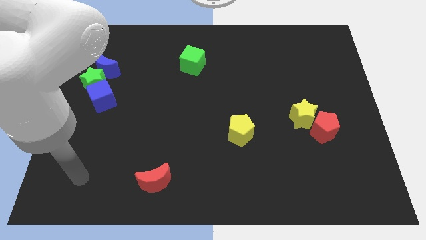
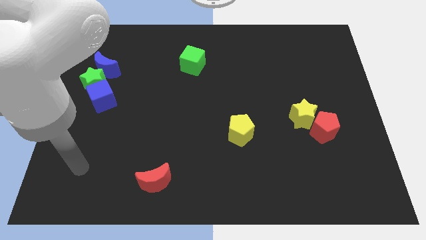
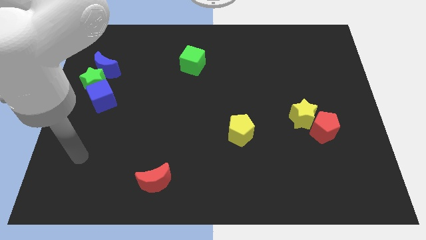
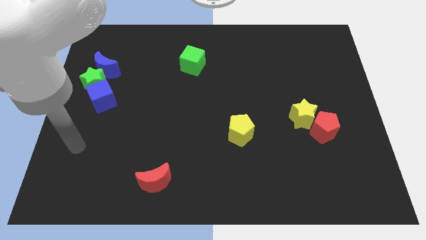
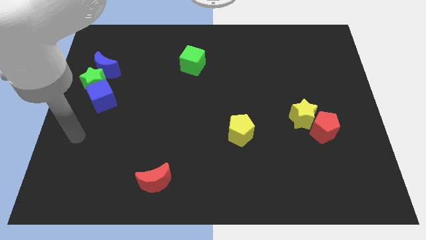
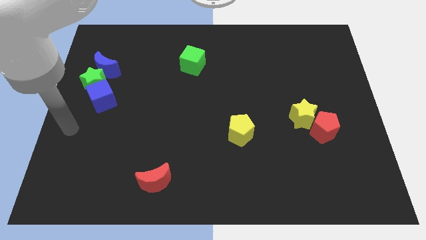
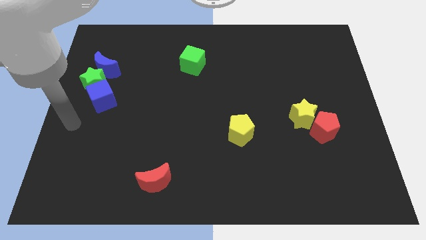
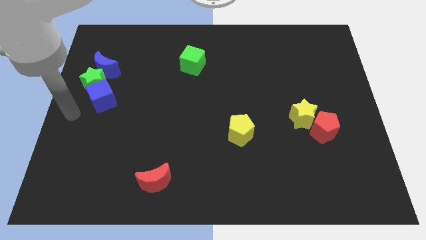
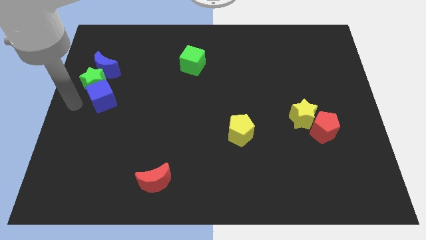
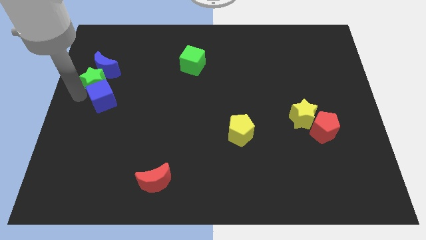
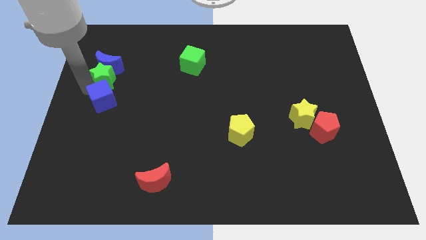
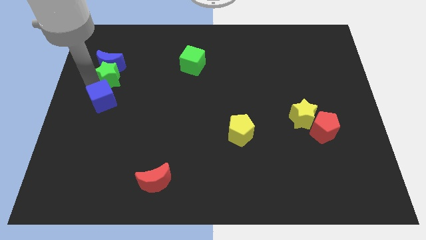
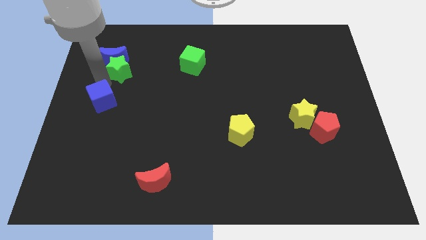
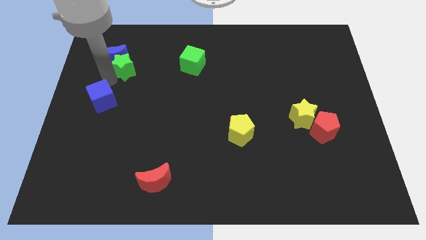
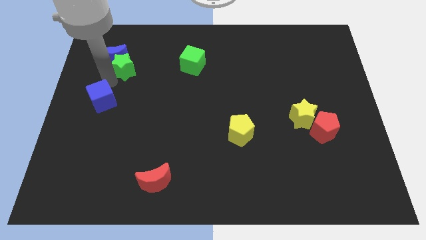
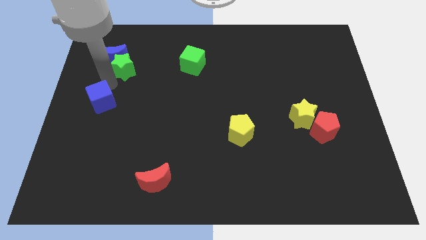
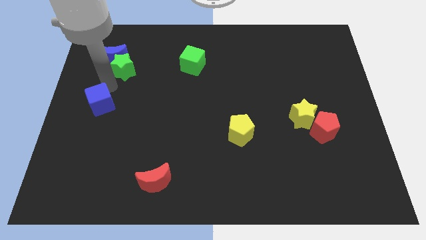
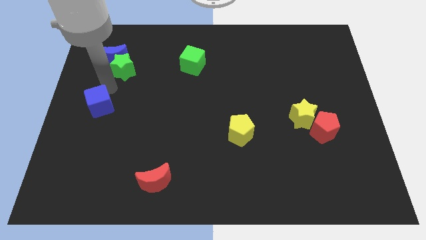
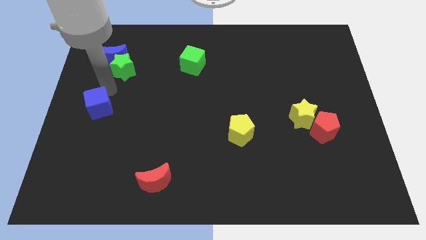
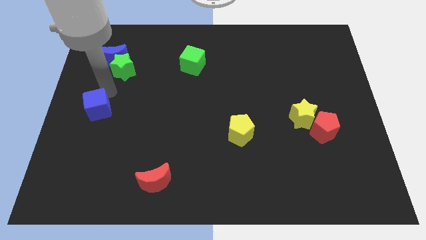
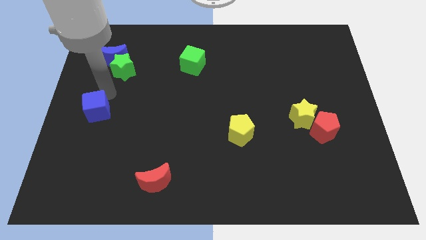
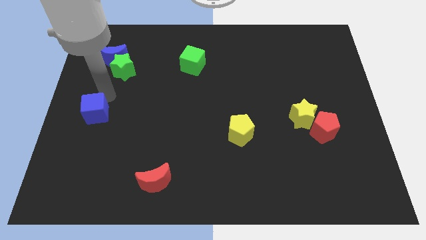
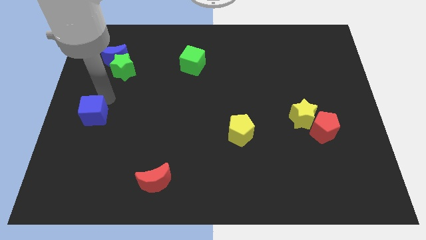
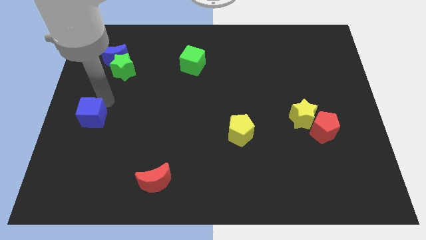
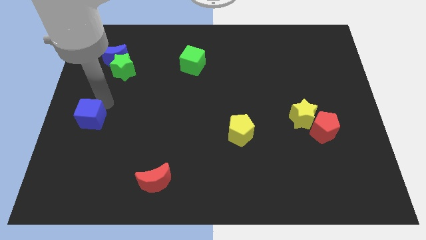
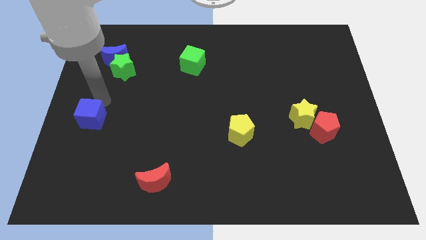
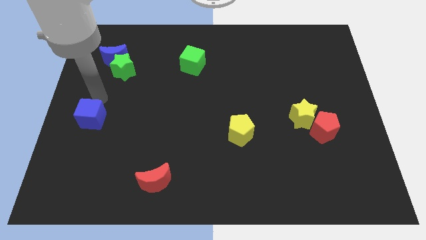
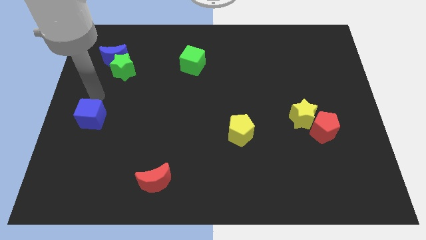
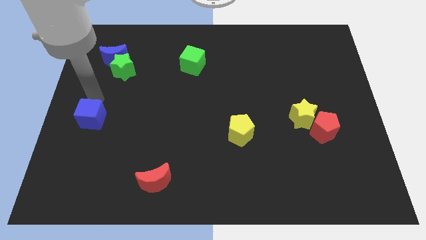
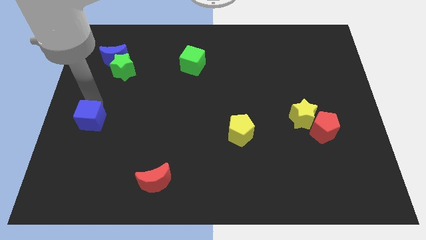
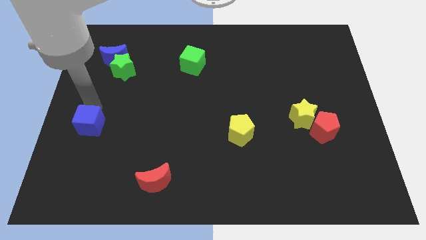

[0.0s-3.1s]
slide the blue cube downwards a little

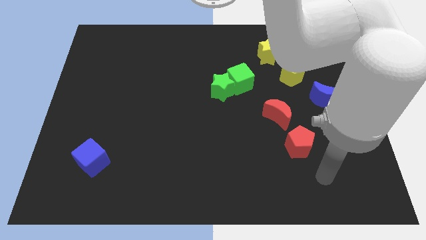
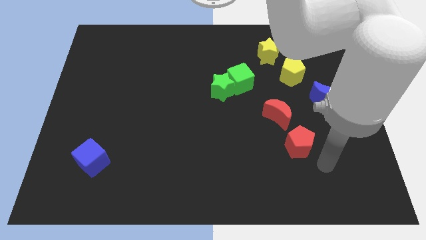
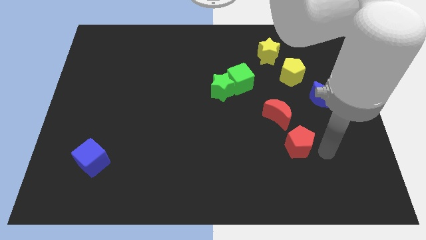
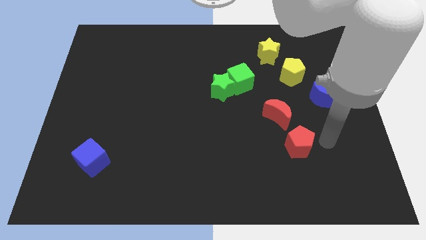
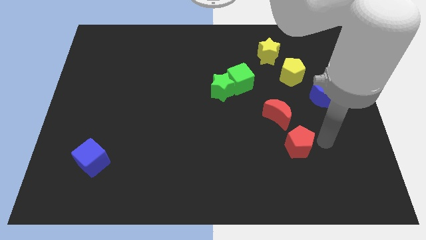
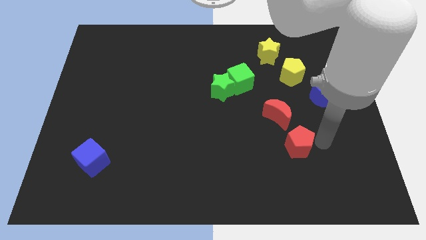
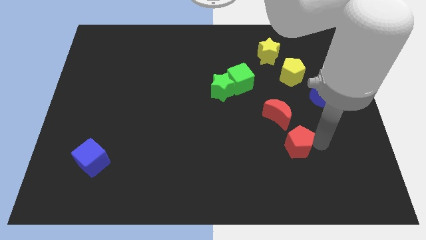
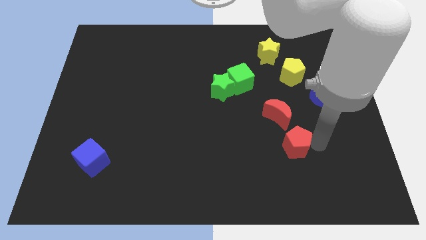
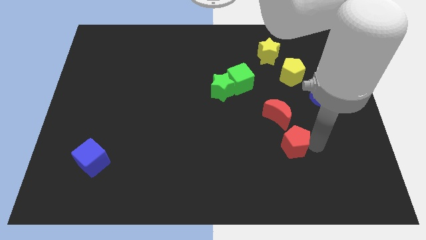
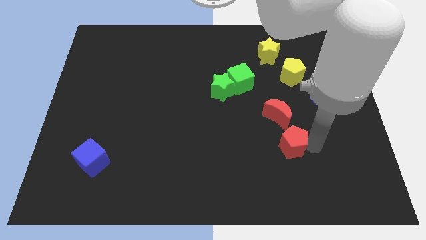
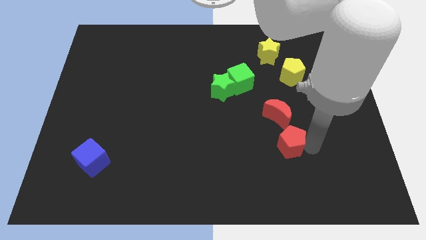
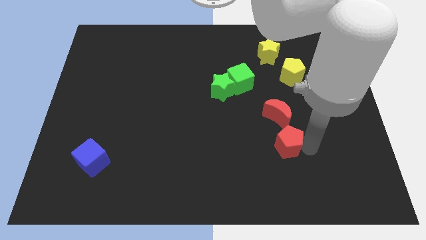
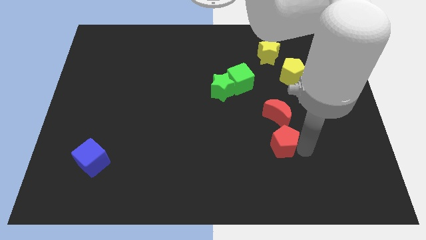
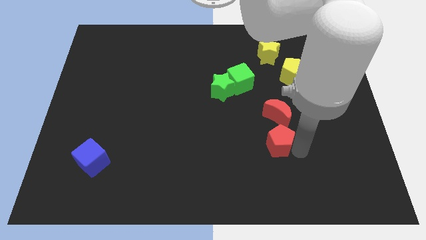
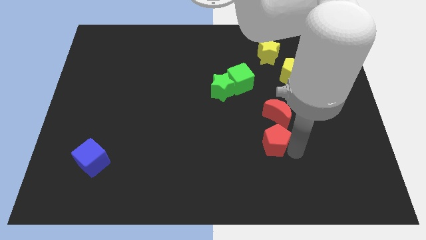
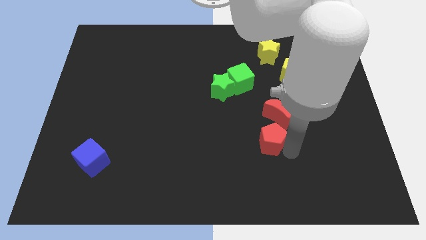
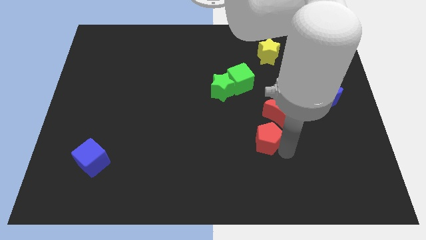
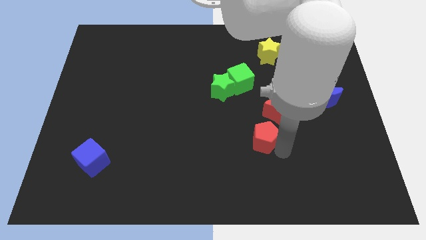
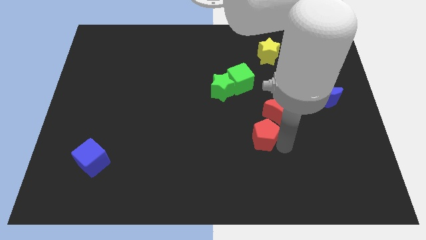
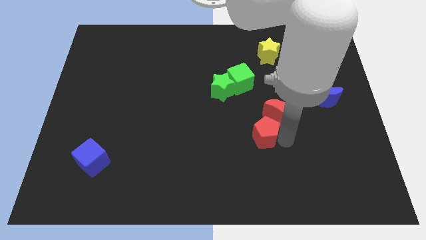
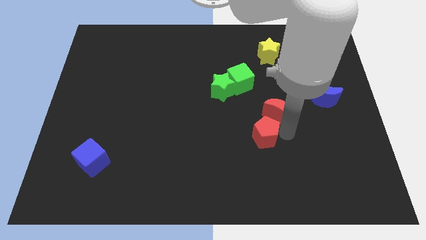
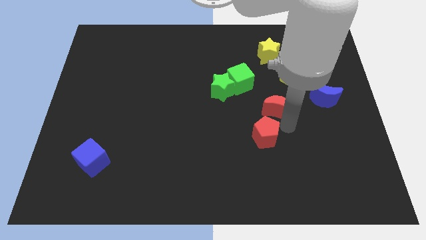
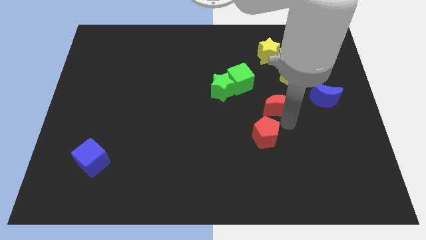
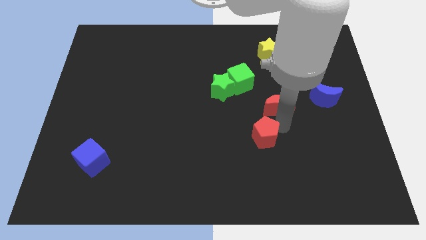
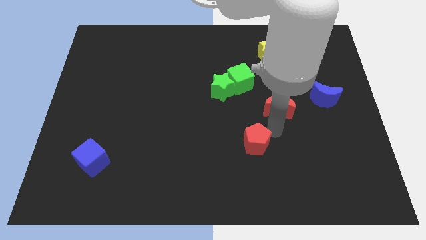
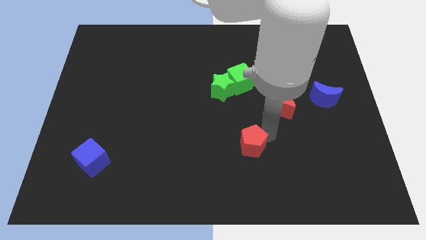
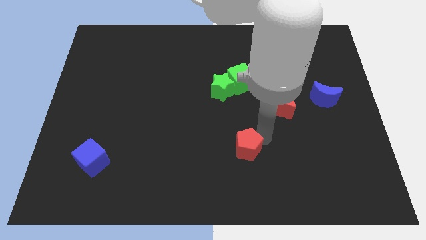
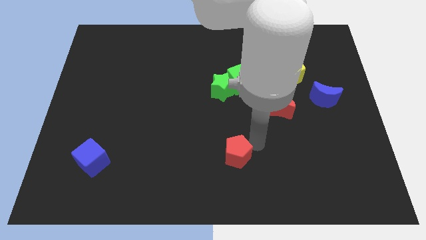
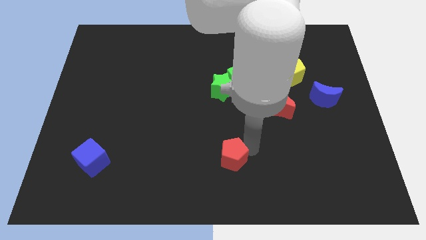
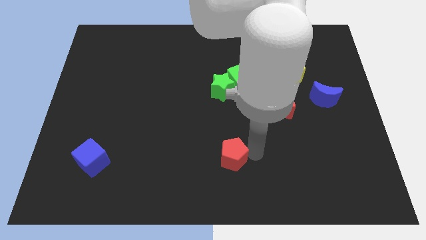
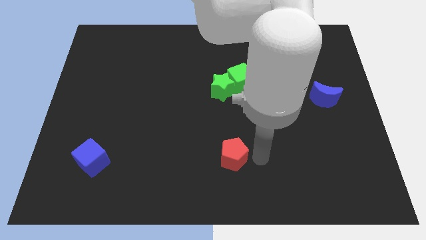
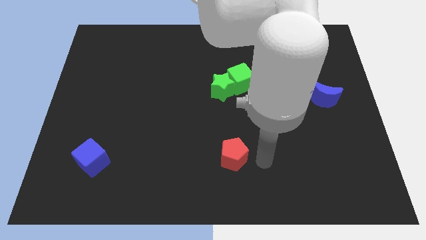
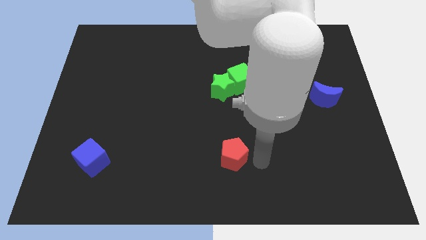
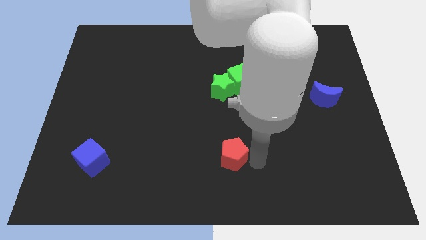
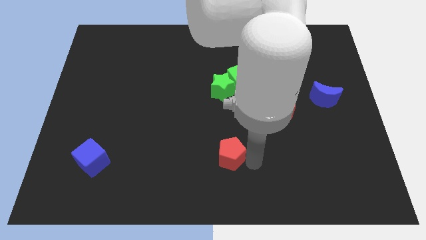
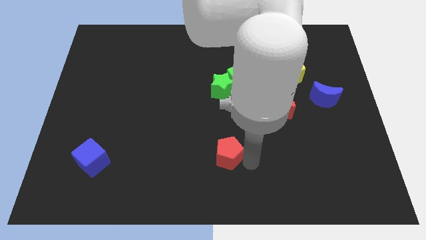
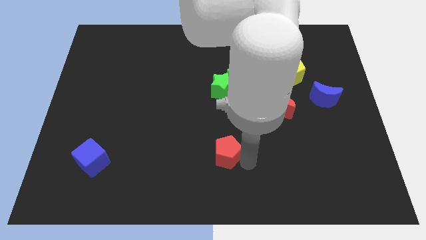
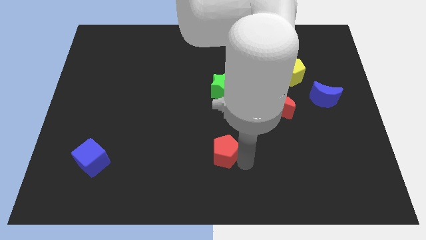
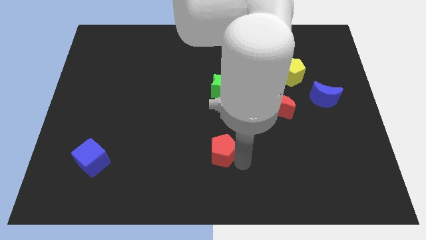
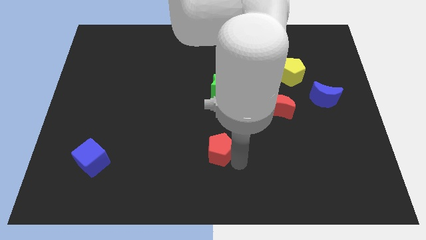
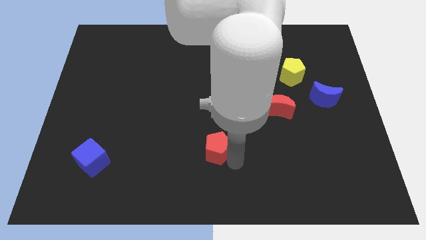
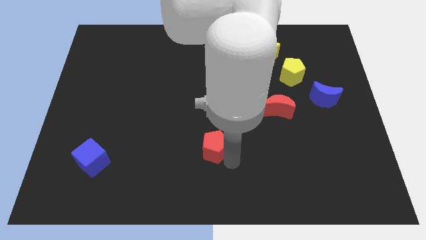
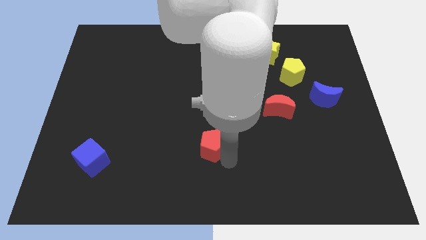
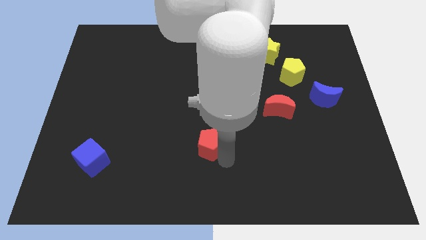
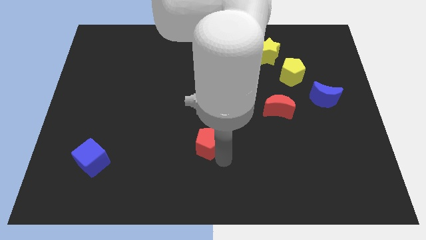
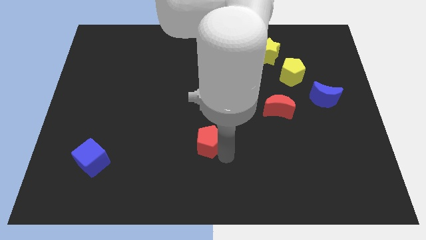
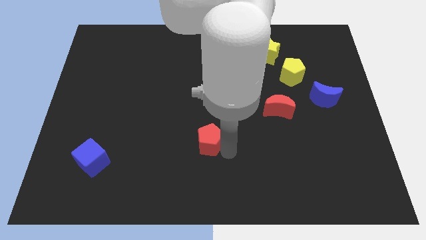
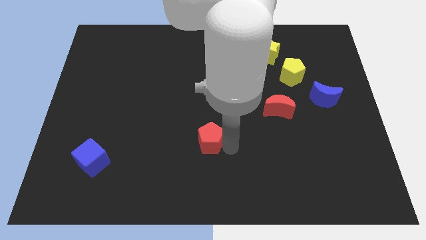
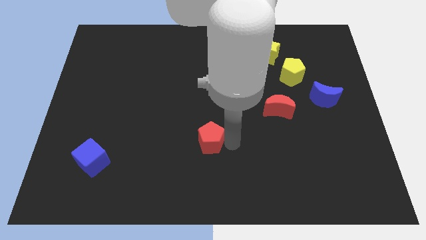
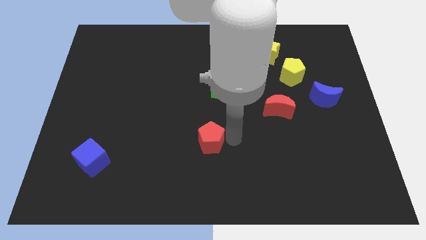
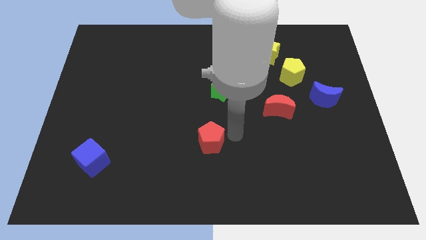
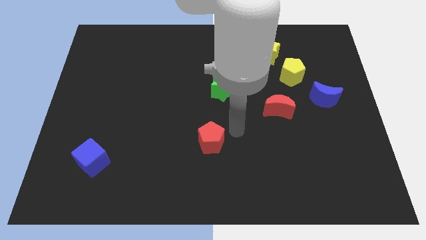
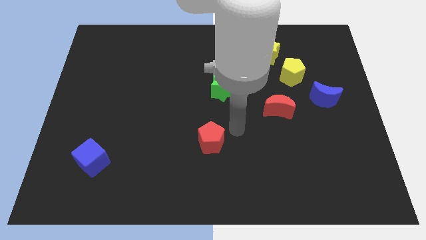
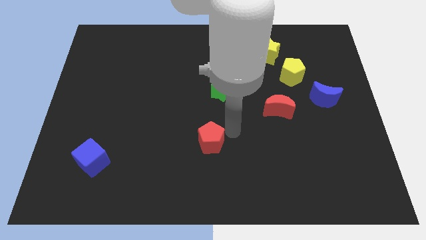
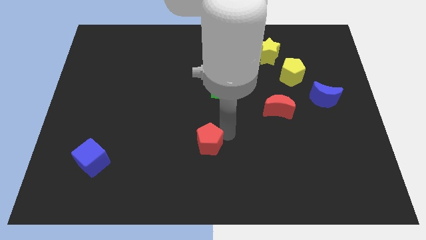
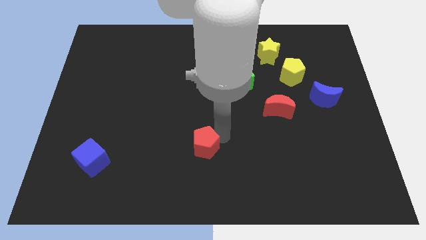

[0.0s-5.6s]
move the red pentagon left
